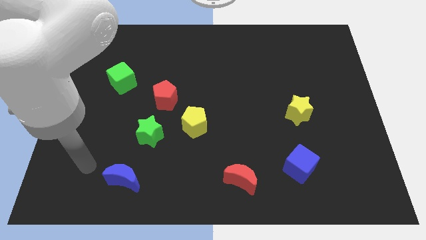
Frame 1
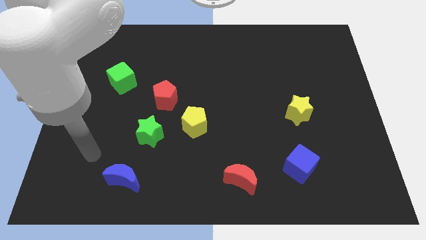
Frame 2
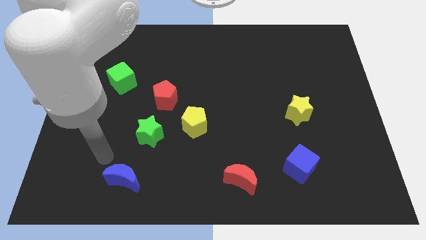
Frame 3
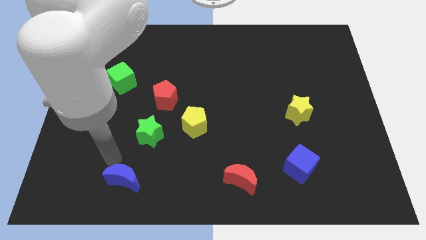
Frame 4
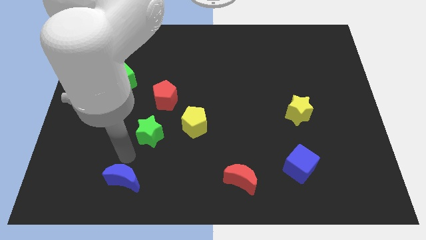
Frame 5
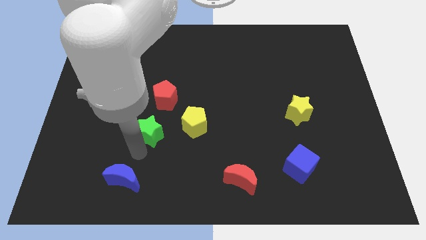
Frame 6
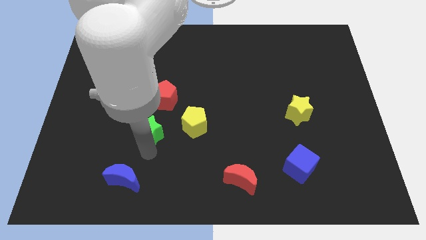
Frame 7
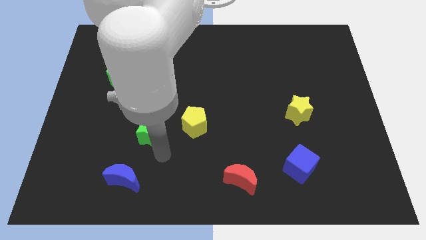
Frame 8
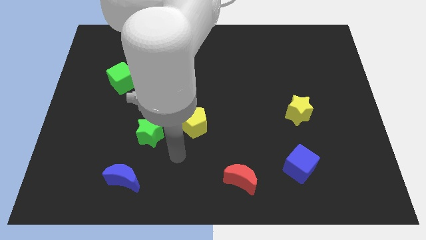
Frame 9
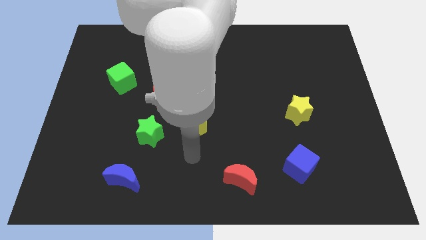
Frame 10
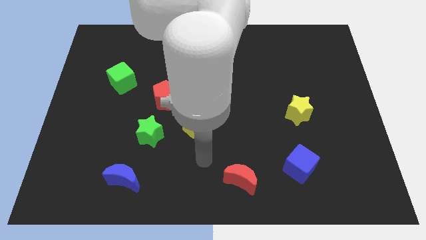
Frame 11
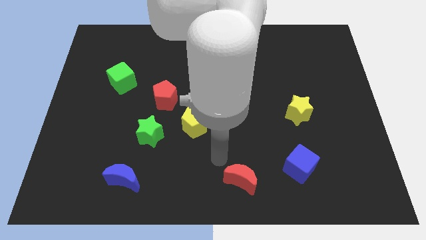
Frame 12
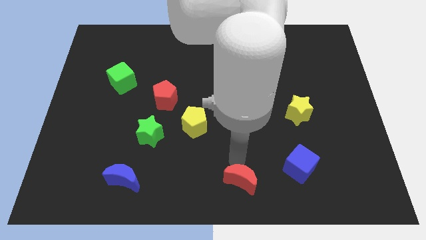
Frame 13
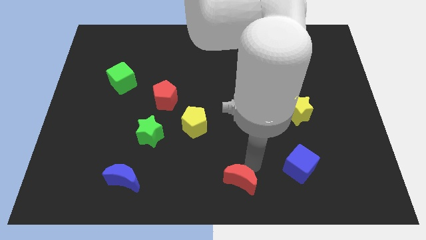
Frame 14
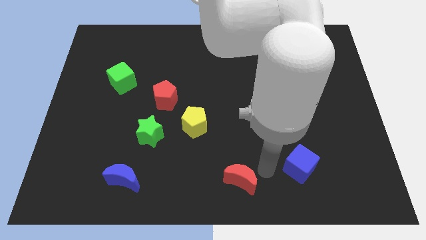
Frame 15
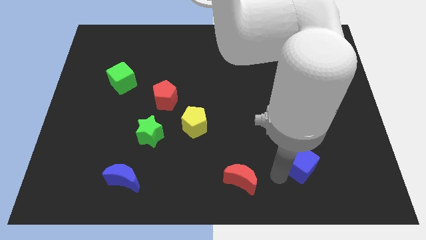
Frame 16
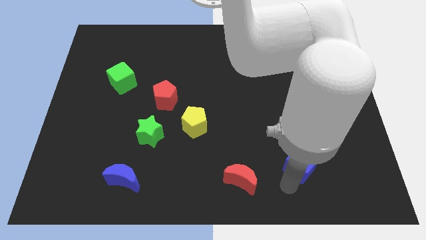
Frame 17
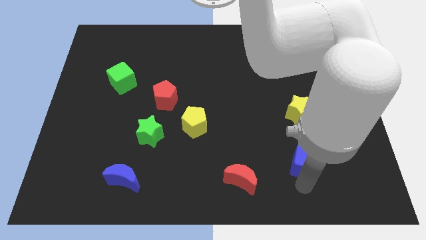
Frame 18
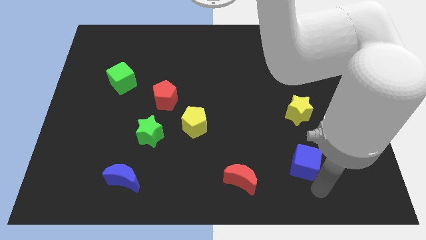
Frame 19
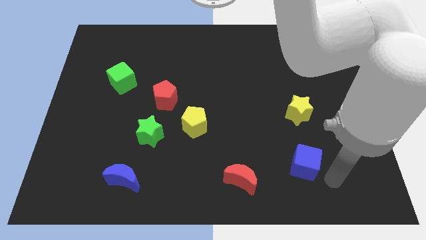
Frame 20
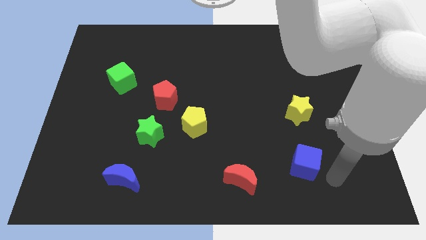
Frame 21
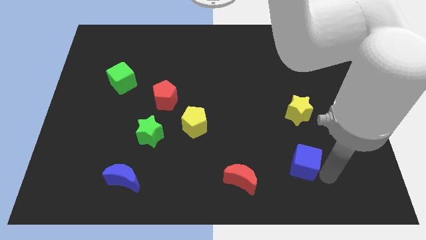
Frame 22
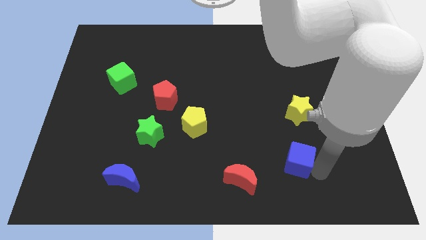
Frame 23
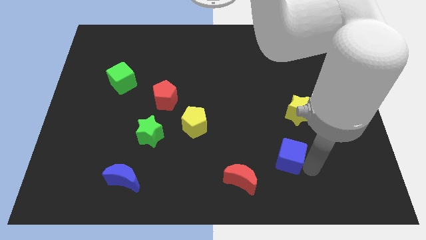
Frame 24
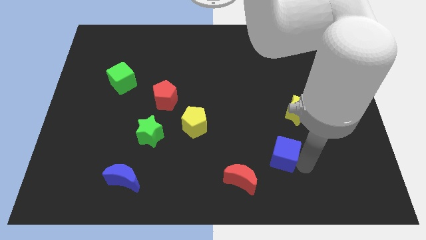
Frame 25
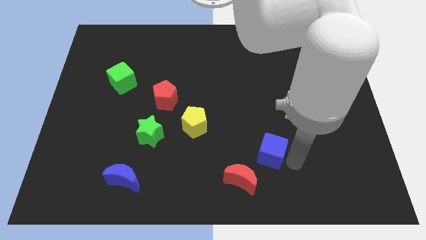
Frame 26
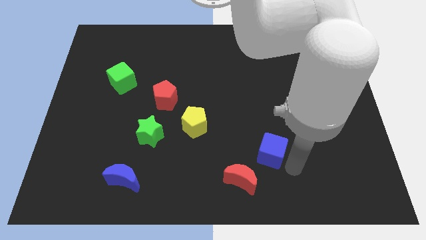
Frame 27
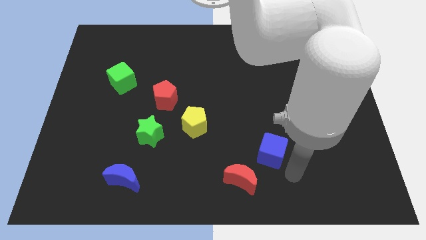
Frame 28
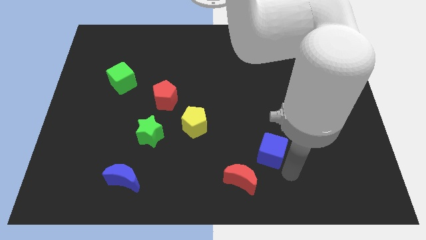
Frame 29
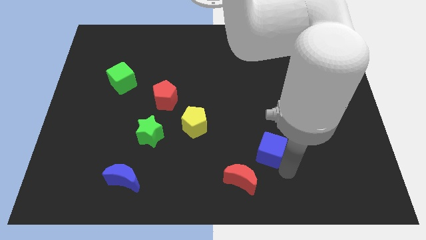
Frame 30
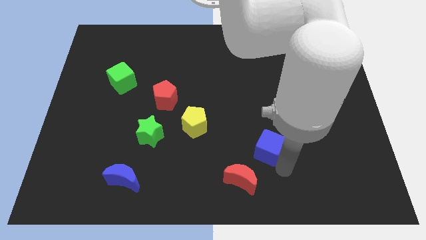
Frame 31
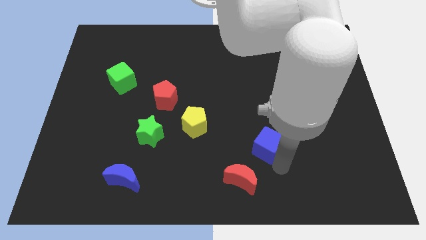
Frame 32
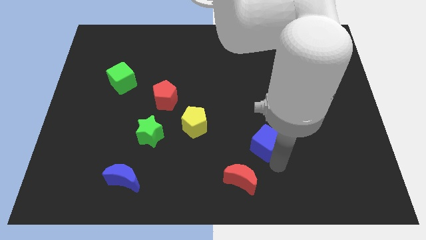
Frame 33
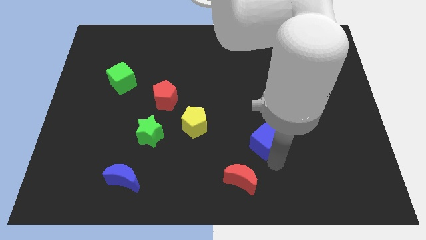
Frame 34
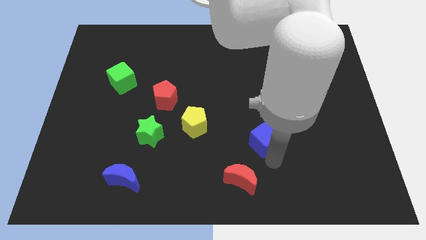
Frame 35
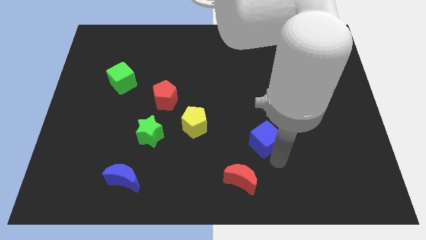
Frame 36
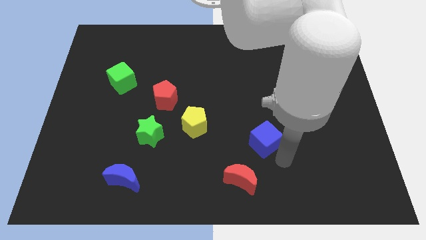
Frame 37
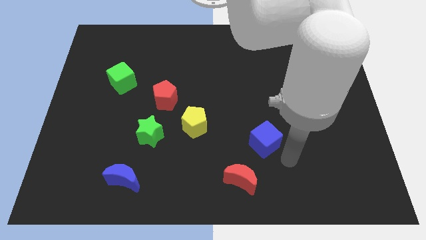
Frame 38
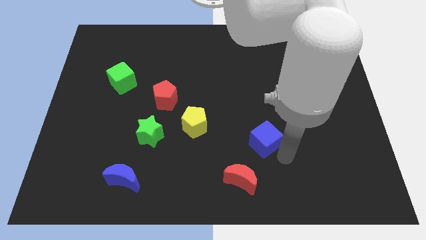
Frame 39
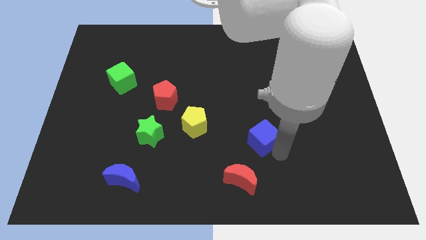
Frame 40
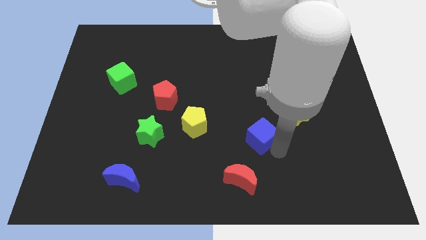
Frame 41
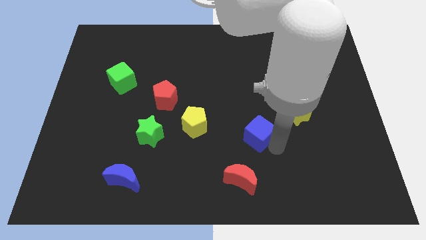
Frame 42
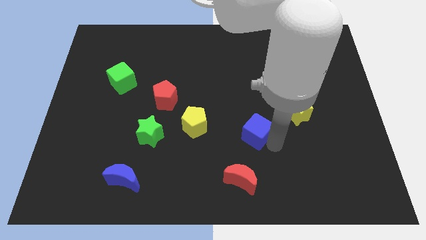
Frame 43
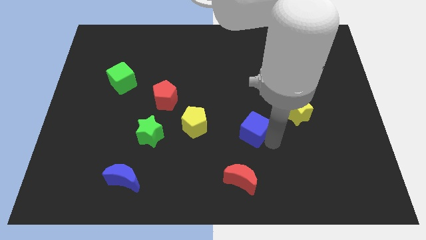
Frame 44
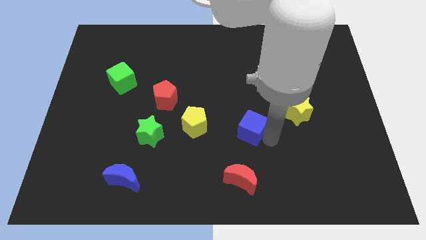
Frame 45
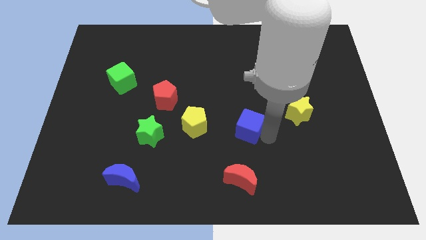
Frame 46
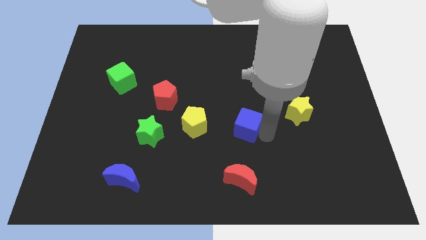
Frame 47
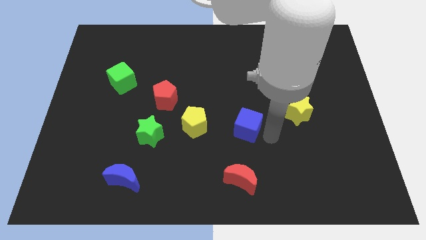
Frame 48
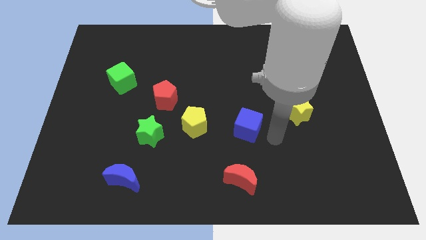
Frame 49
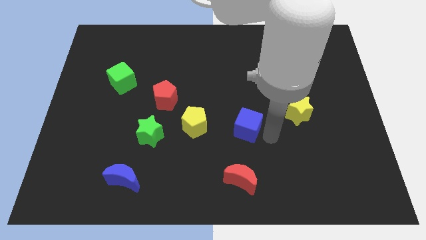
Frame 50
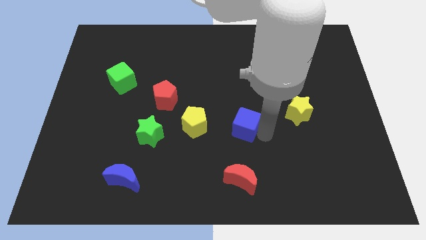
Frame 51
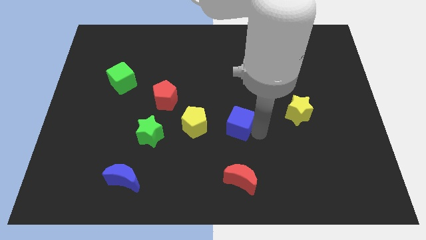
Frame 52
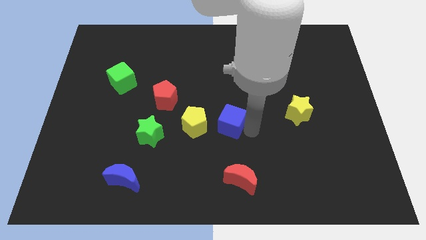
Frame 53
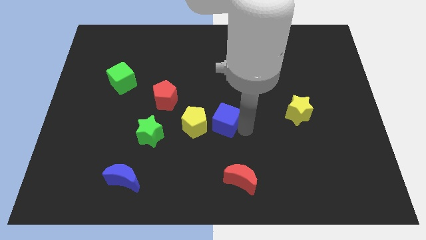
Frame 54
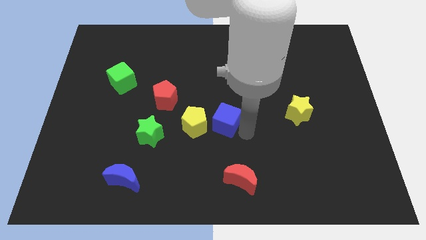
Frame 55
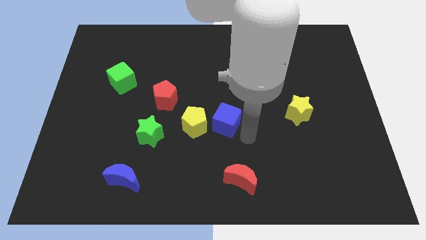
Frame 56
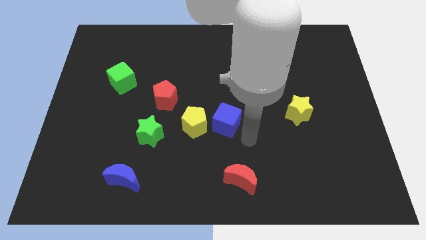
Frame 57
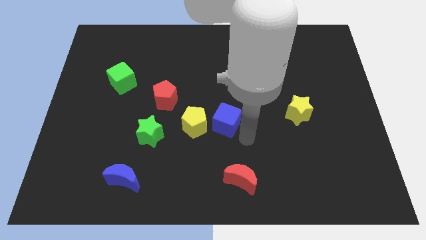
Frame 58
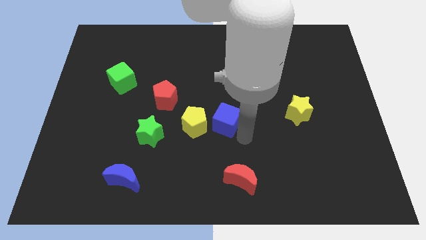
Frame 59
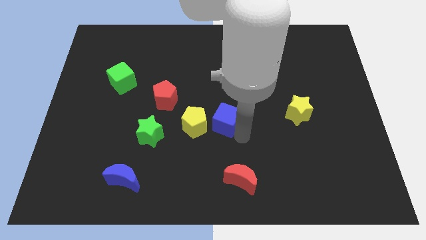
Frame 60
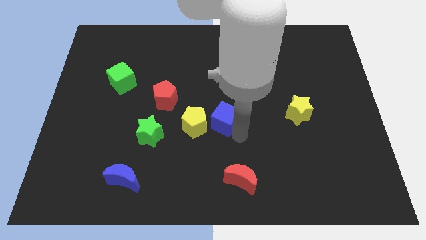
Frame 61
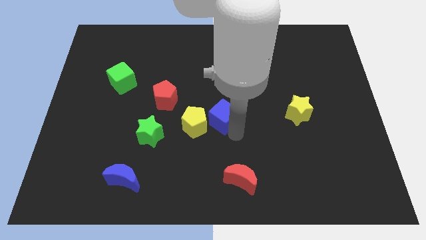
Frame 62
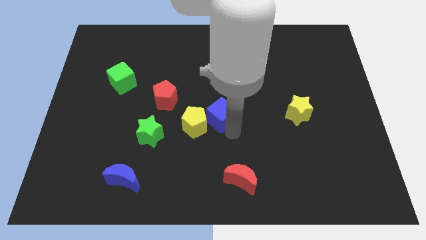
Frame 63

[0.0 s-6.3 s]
move the blue cube diagonally up and left

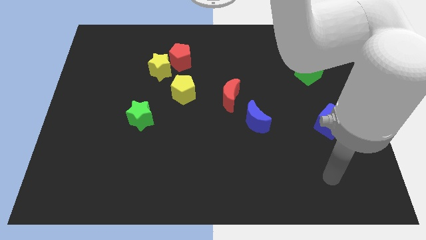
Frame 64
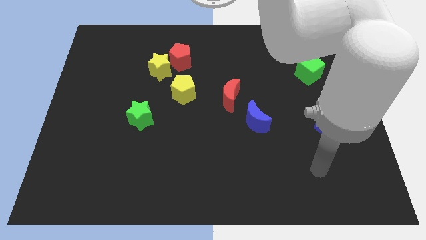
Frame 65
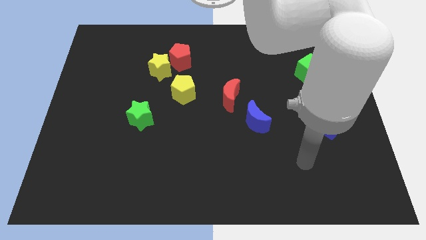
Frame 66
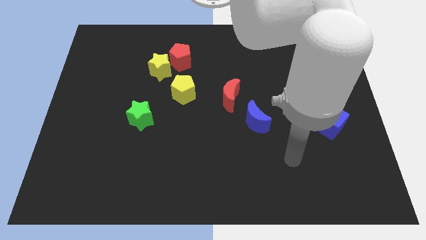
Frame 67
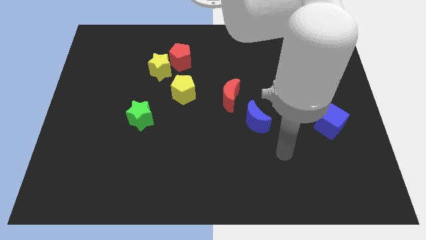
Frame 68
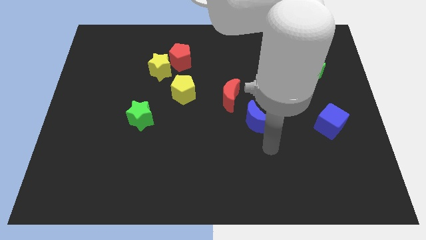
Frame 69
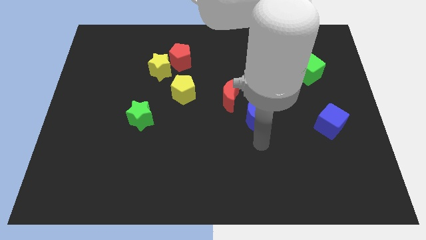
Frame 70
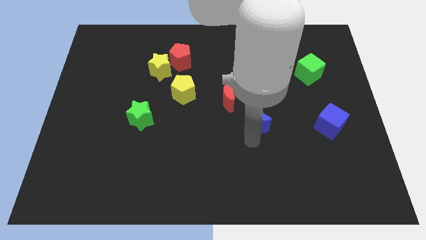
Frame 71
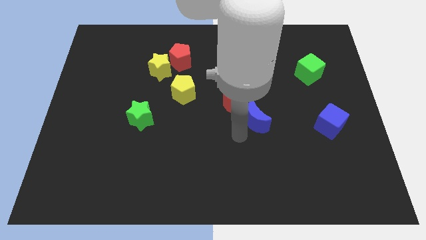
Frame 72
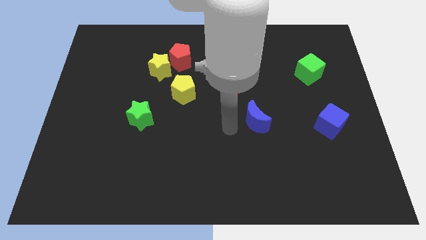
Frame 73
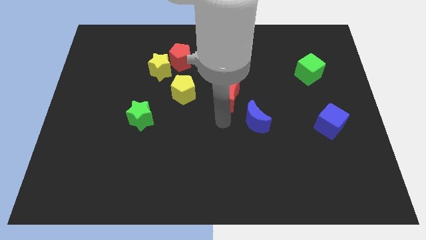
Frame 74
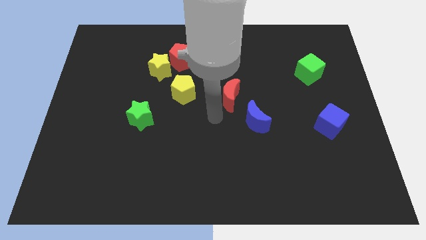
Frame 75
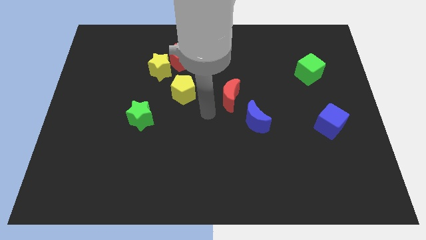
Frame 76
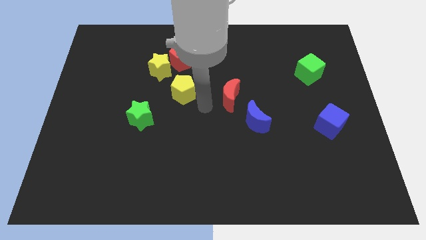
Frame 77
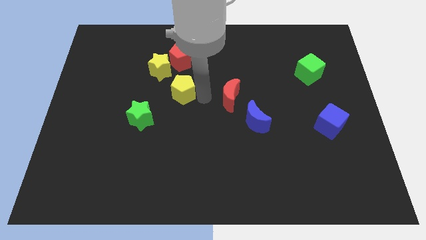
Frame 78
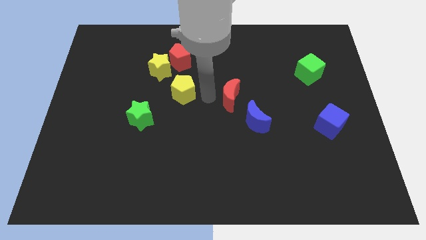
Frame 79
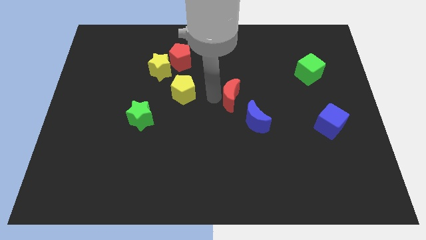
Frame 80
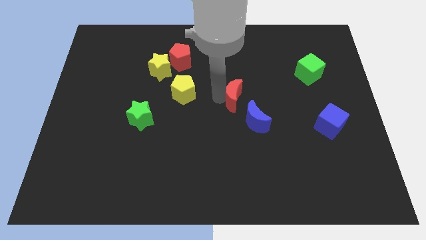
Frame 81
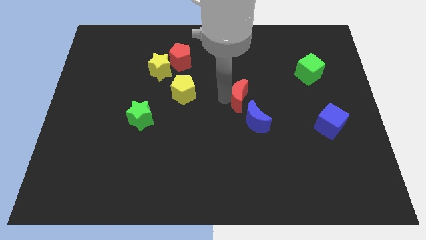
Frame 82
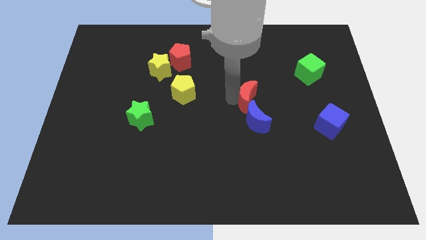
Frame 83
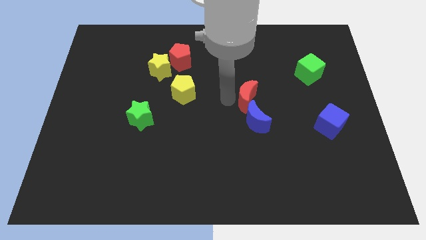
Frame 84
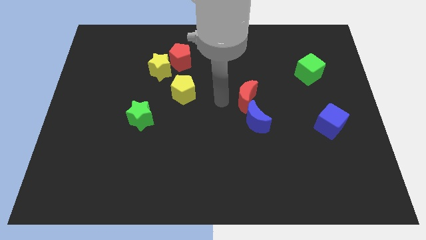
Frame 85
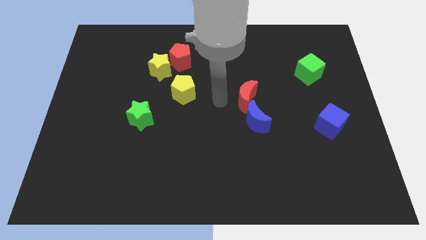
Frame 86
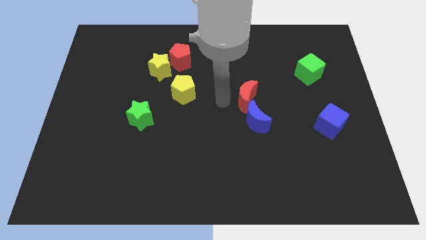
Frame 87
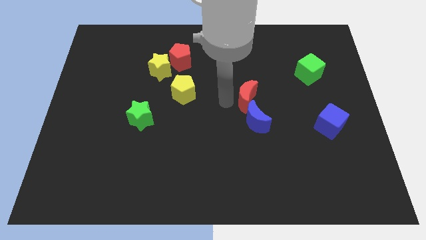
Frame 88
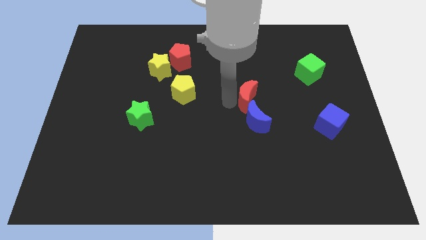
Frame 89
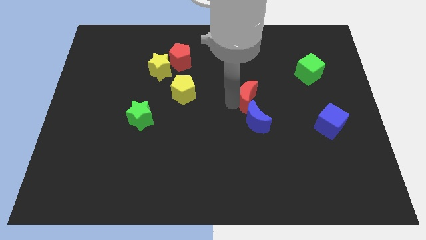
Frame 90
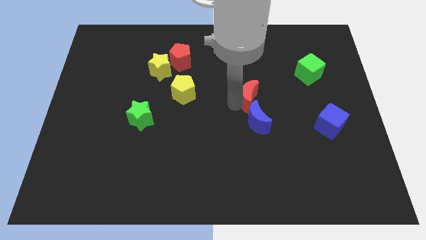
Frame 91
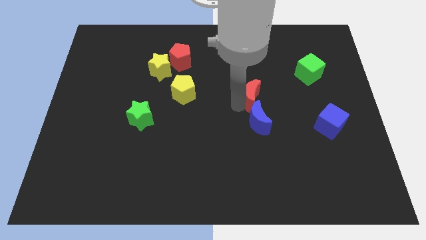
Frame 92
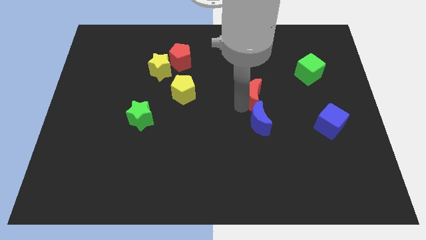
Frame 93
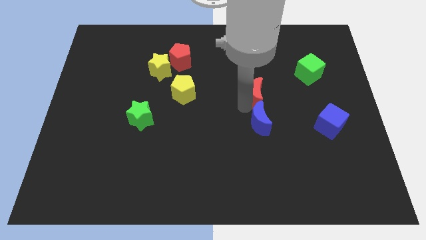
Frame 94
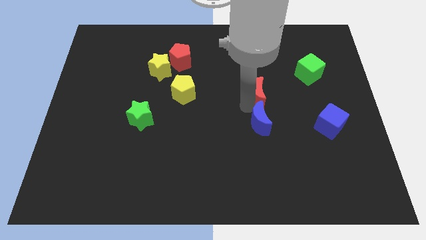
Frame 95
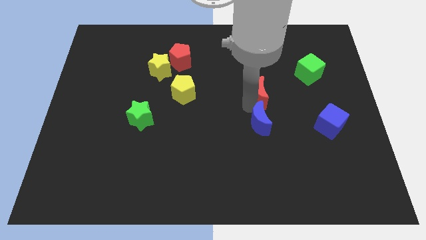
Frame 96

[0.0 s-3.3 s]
move the red moon to the right a little bit
